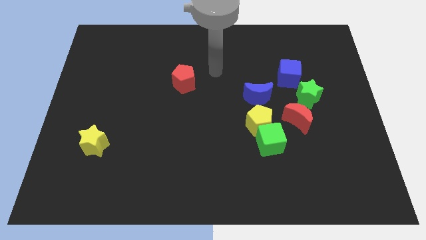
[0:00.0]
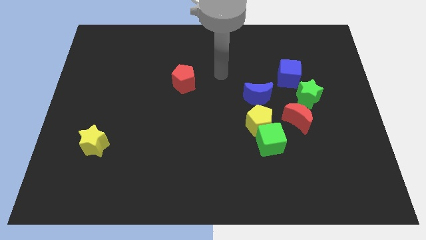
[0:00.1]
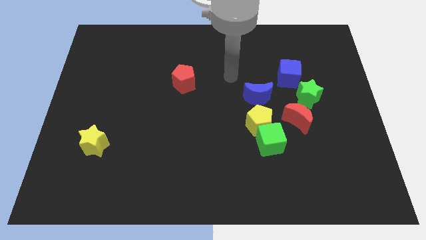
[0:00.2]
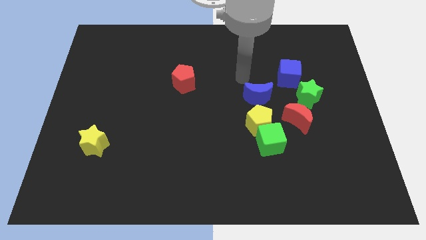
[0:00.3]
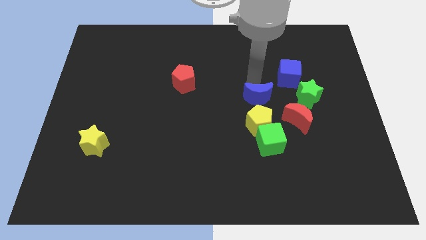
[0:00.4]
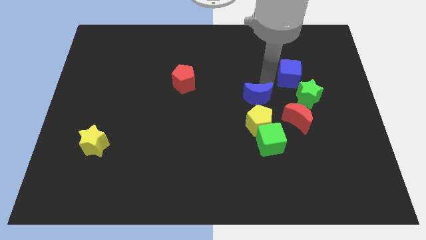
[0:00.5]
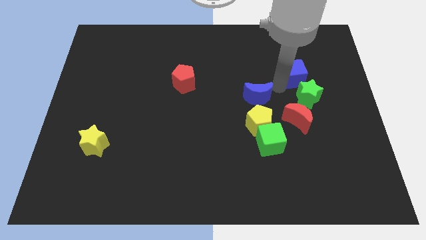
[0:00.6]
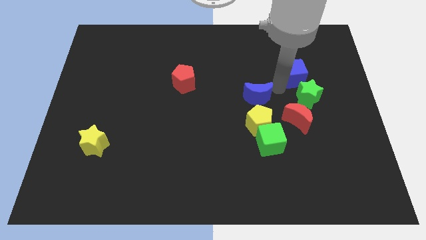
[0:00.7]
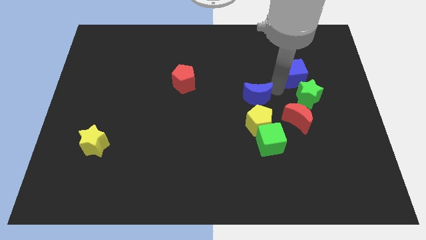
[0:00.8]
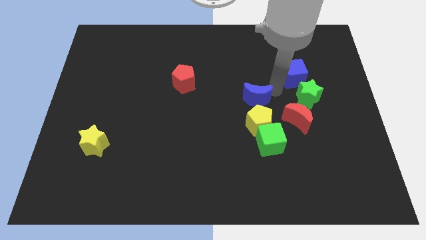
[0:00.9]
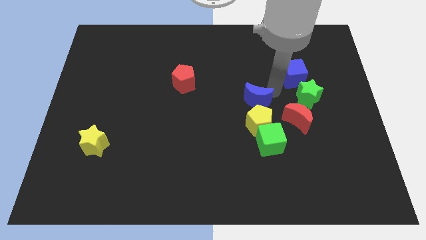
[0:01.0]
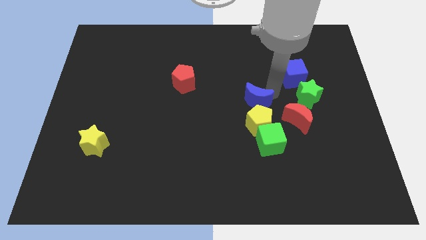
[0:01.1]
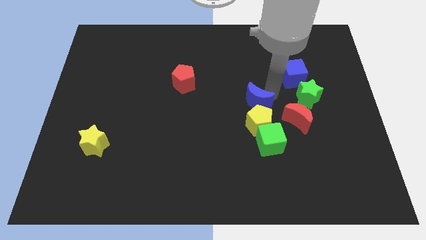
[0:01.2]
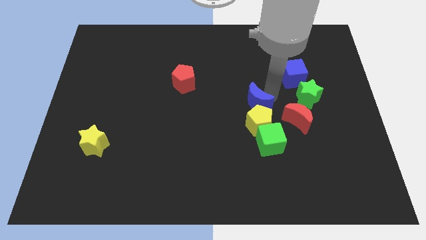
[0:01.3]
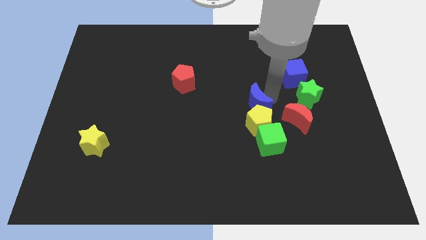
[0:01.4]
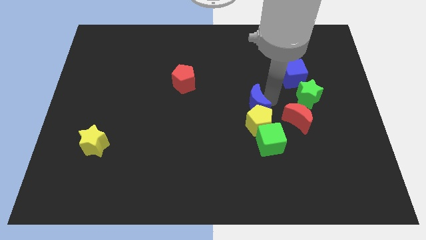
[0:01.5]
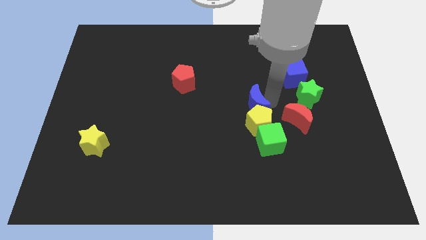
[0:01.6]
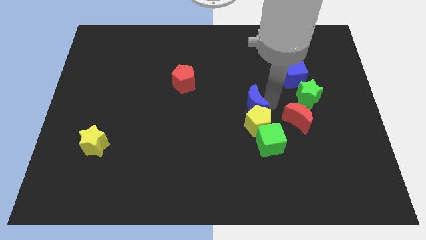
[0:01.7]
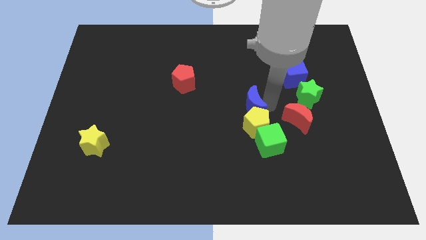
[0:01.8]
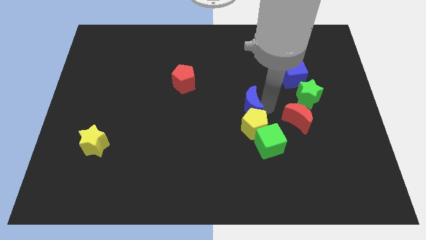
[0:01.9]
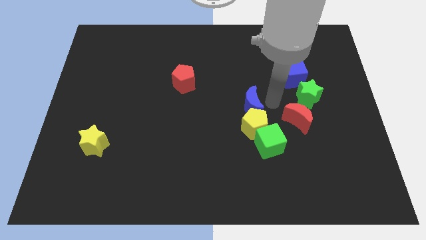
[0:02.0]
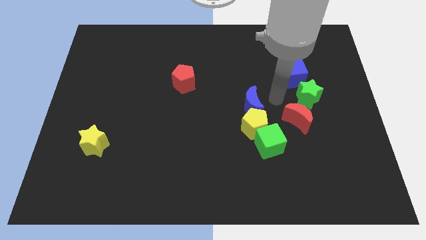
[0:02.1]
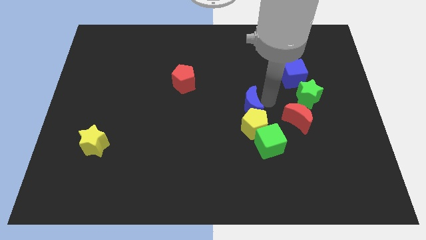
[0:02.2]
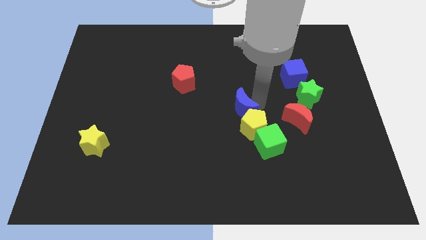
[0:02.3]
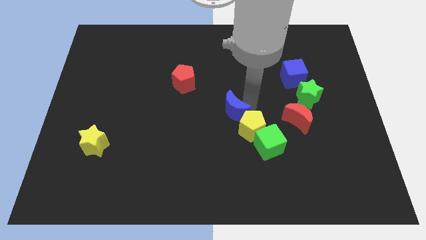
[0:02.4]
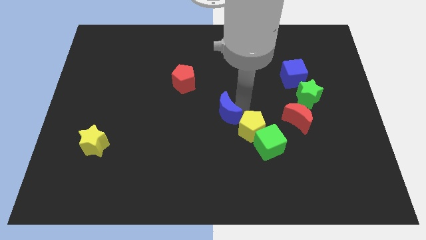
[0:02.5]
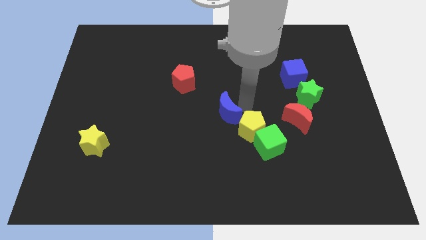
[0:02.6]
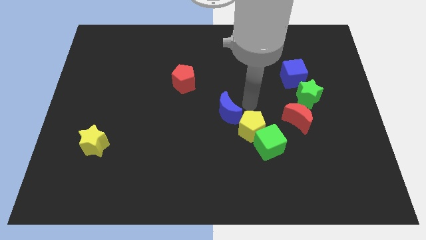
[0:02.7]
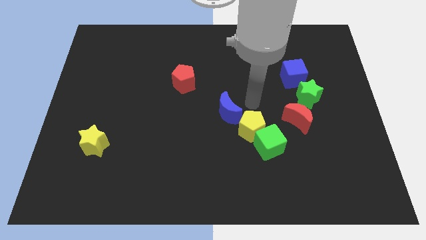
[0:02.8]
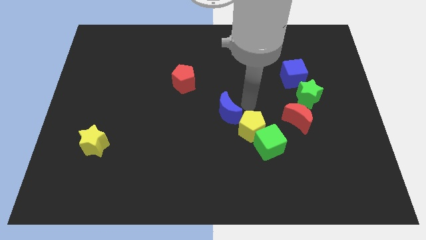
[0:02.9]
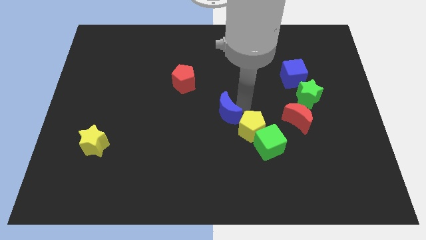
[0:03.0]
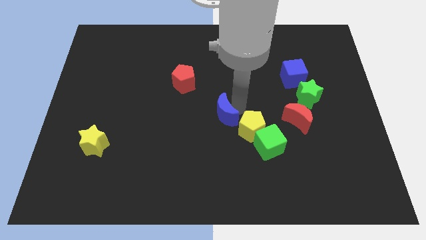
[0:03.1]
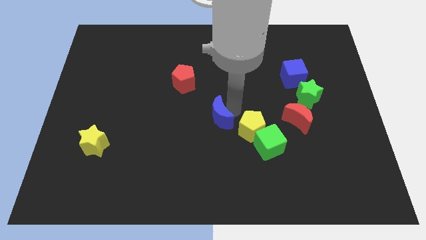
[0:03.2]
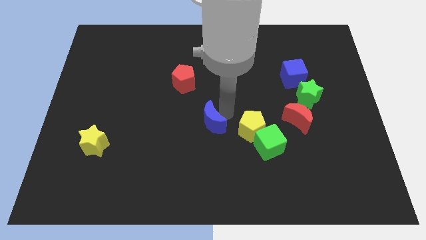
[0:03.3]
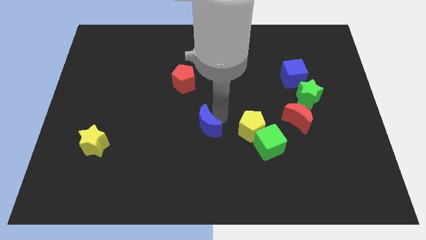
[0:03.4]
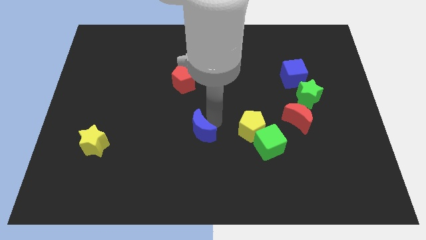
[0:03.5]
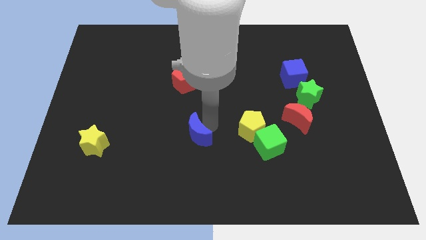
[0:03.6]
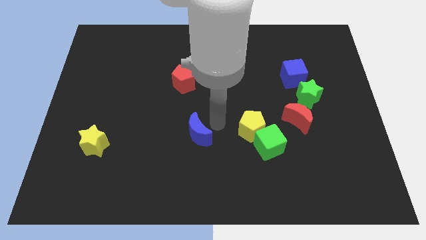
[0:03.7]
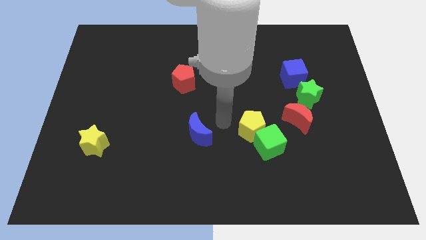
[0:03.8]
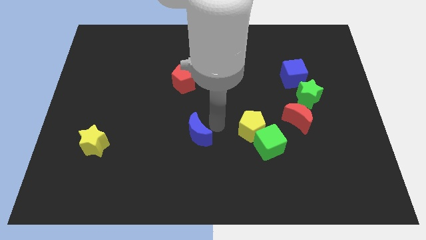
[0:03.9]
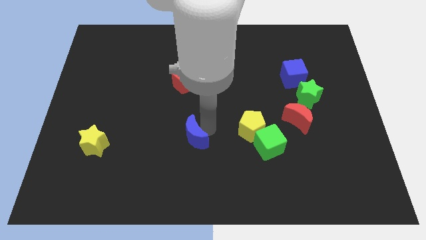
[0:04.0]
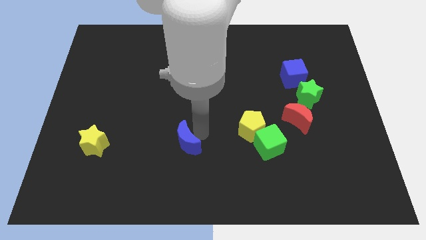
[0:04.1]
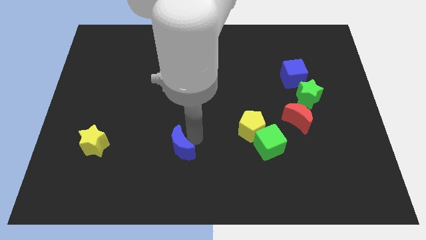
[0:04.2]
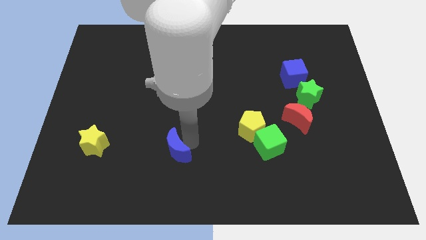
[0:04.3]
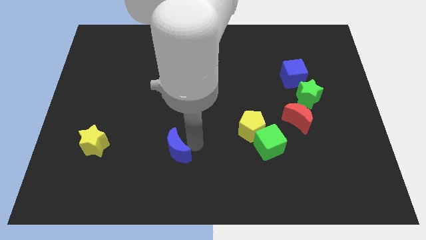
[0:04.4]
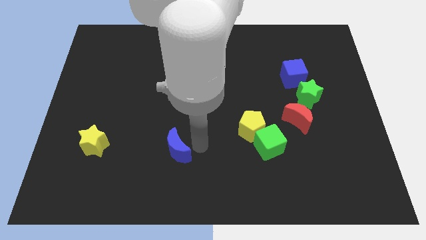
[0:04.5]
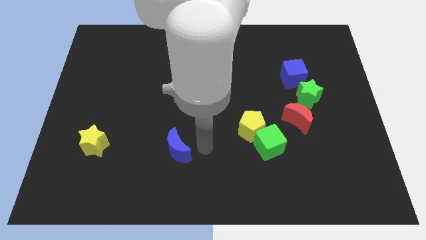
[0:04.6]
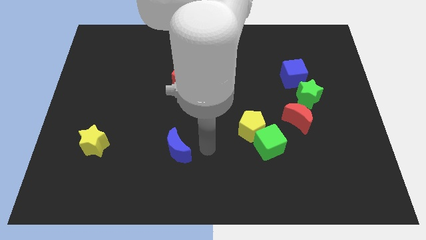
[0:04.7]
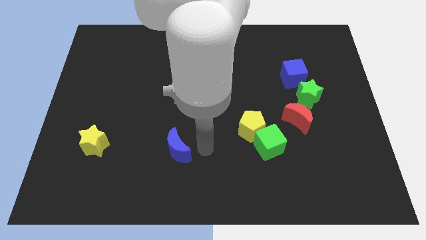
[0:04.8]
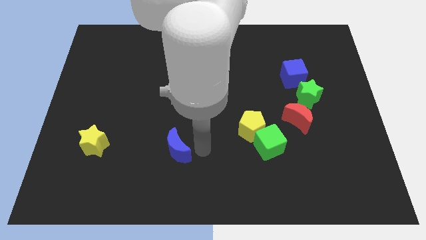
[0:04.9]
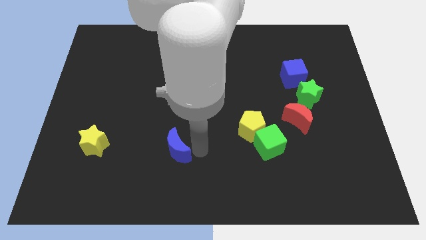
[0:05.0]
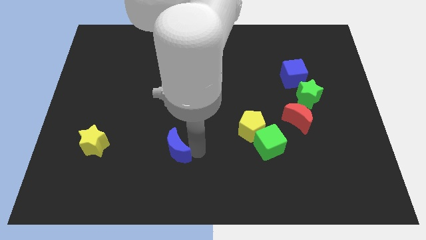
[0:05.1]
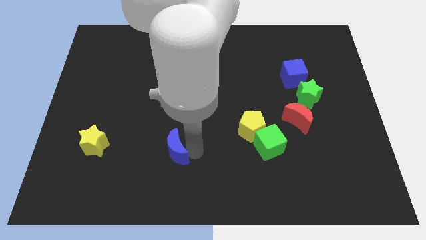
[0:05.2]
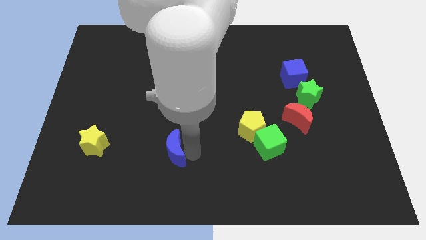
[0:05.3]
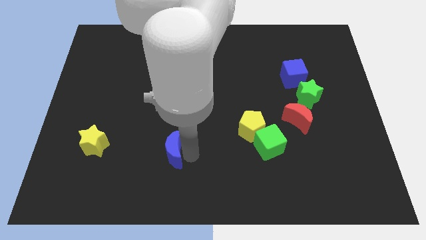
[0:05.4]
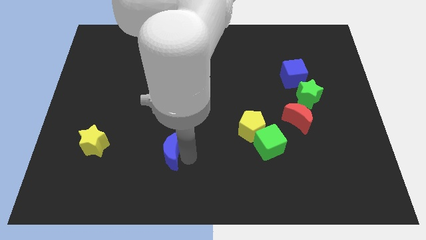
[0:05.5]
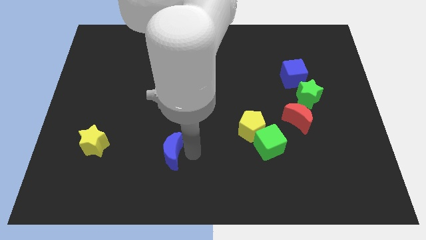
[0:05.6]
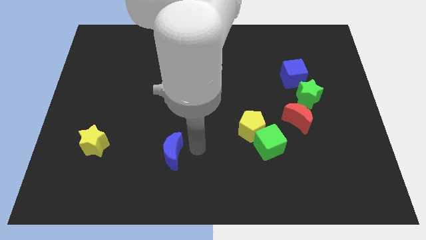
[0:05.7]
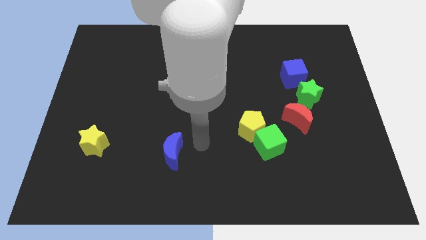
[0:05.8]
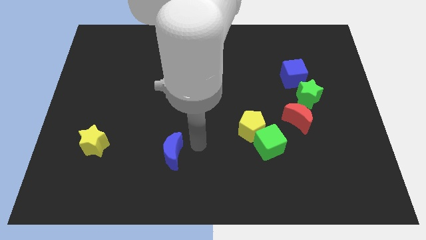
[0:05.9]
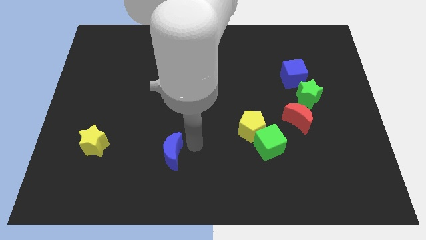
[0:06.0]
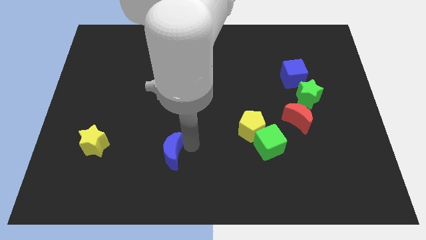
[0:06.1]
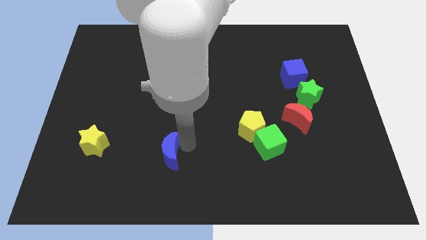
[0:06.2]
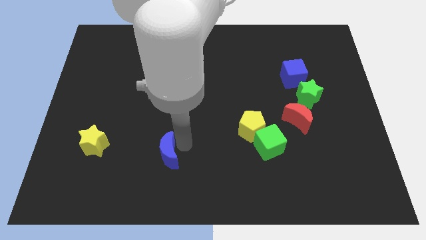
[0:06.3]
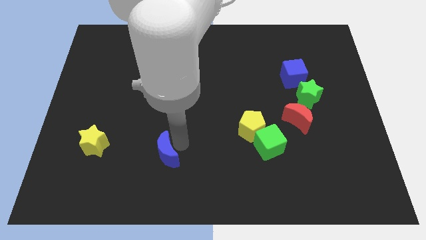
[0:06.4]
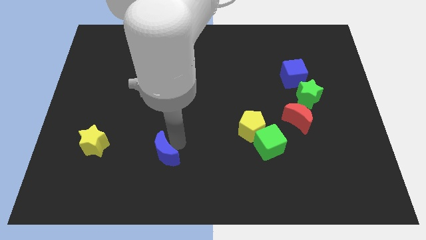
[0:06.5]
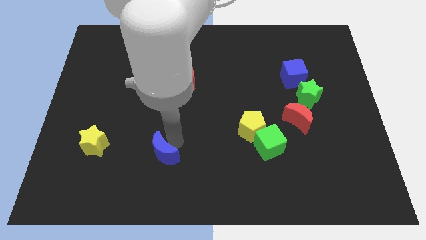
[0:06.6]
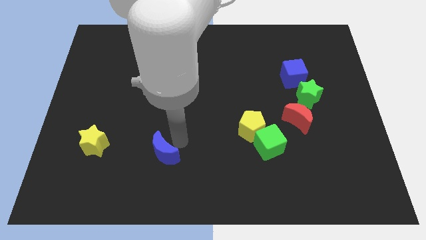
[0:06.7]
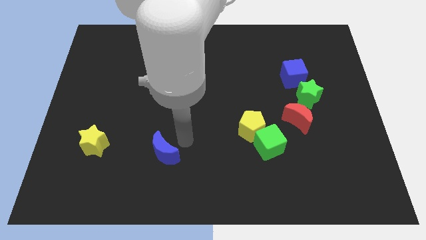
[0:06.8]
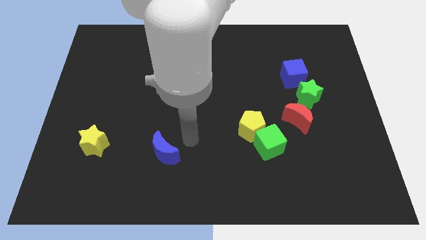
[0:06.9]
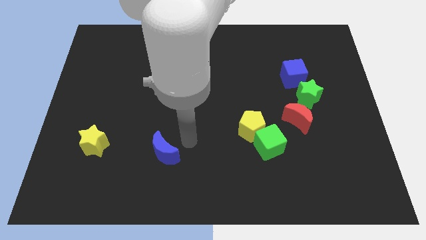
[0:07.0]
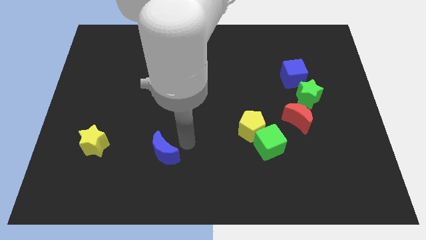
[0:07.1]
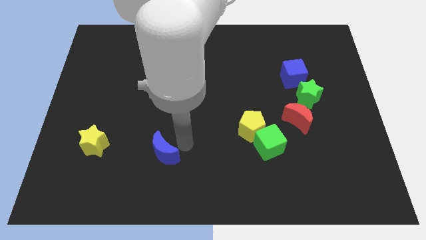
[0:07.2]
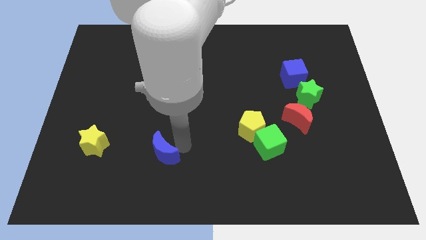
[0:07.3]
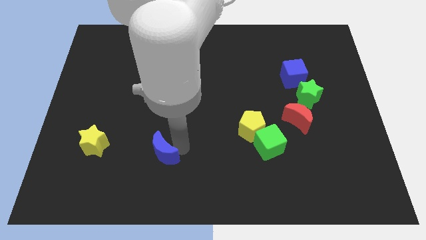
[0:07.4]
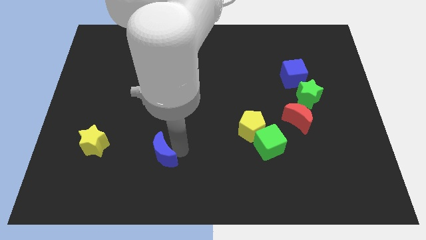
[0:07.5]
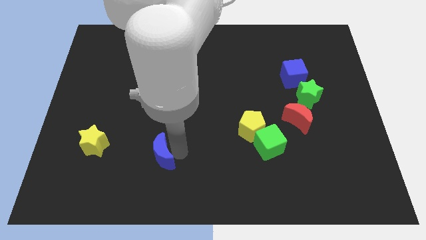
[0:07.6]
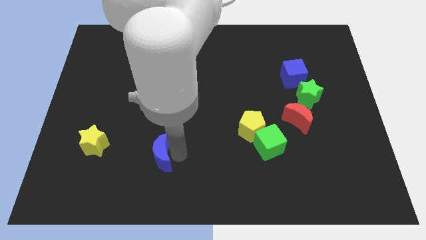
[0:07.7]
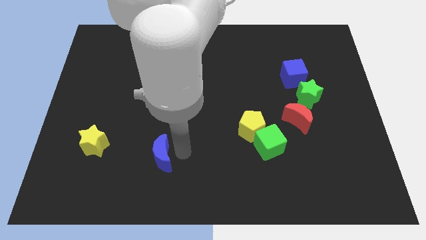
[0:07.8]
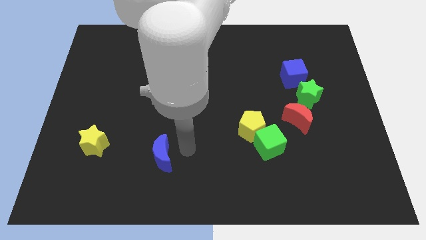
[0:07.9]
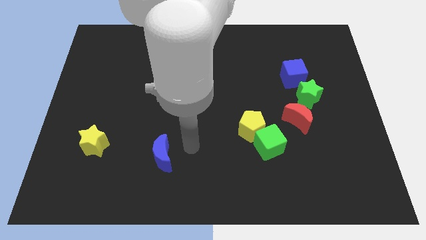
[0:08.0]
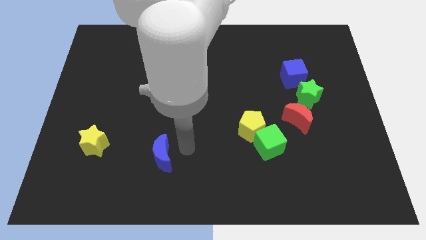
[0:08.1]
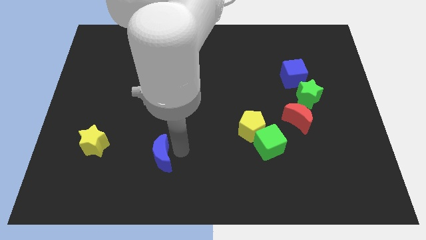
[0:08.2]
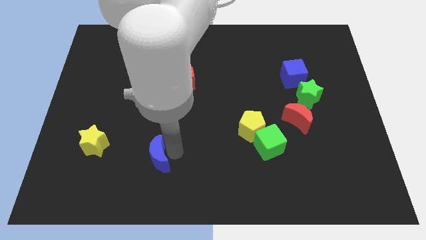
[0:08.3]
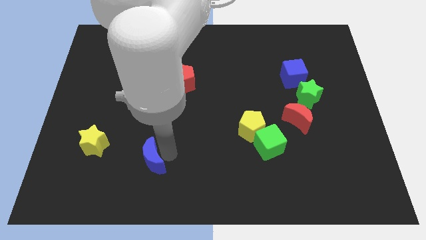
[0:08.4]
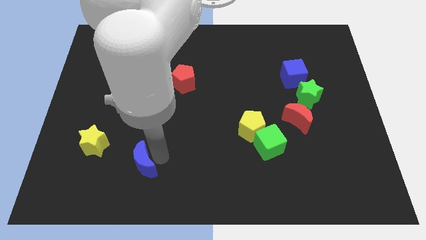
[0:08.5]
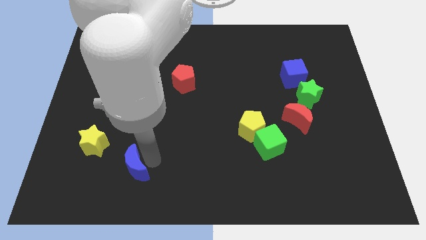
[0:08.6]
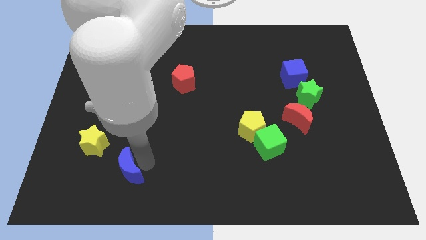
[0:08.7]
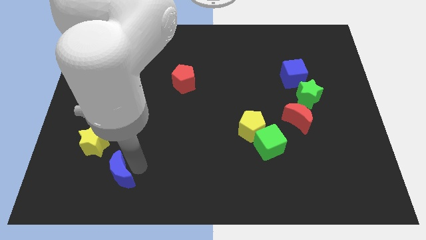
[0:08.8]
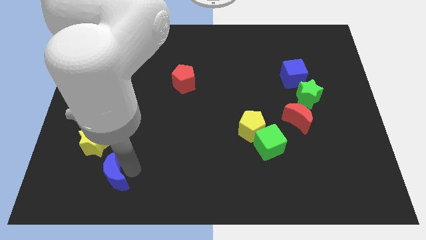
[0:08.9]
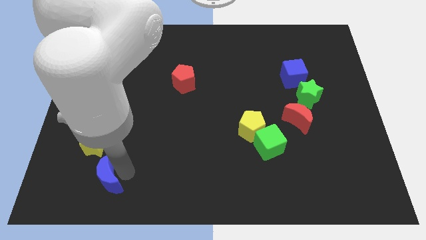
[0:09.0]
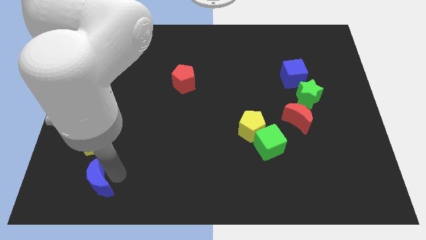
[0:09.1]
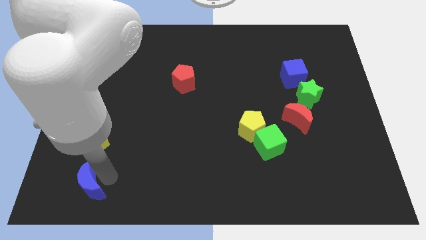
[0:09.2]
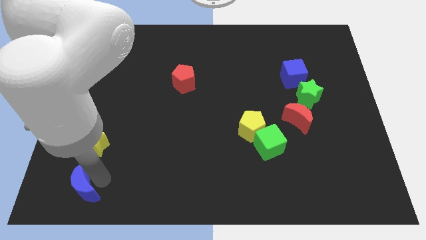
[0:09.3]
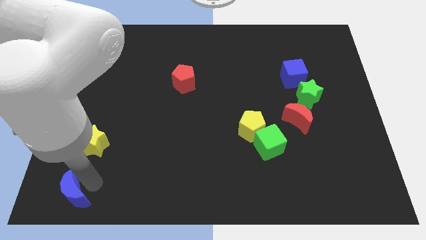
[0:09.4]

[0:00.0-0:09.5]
push the blue moon to the bottom left
